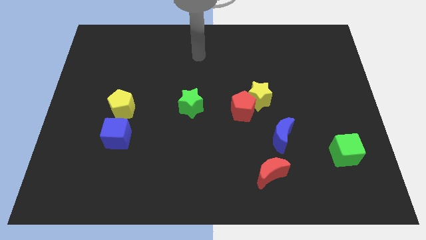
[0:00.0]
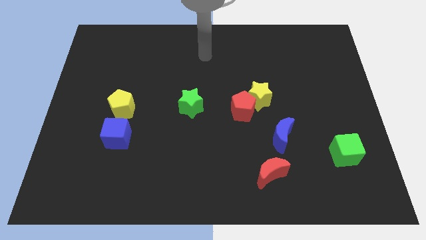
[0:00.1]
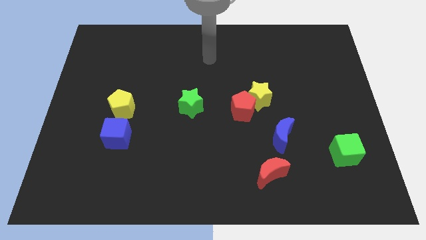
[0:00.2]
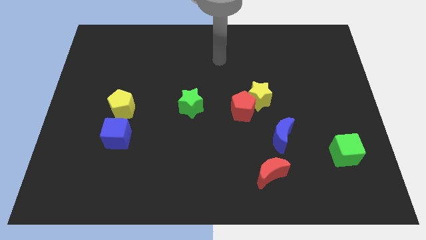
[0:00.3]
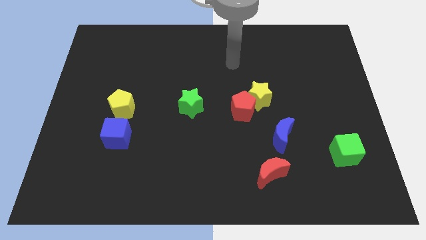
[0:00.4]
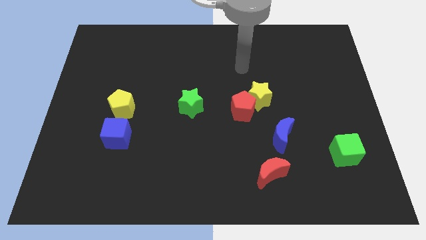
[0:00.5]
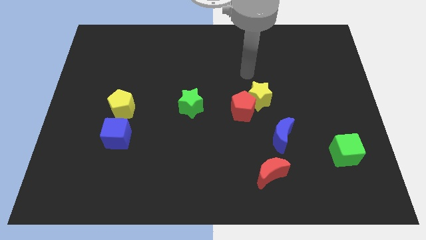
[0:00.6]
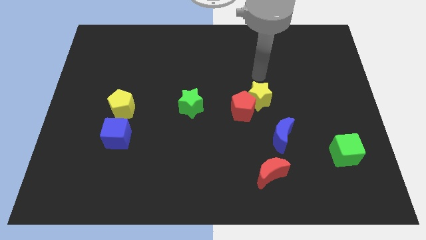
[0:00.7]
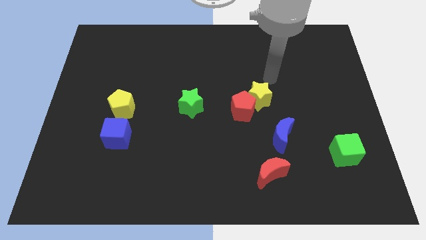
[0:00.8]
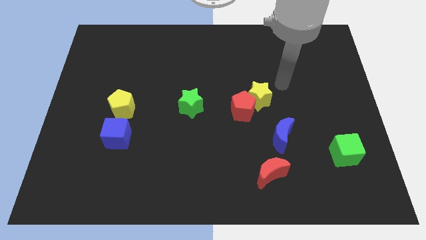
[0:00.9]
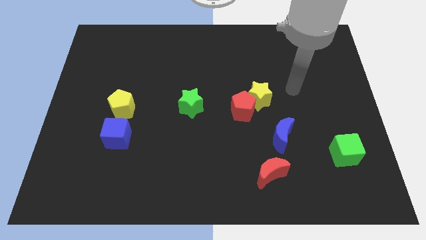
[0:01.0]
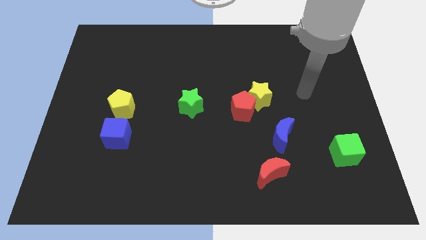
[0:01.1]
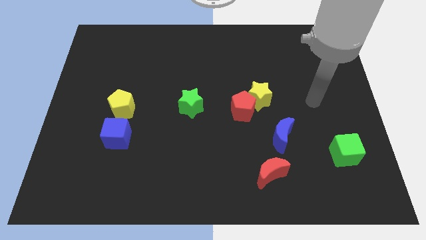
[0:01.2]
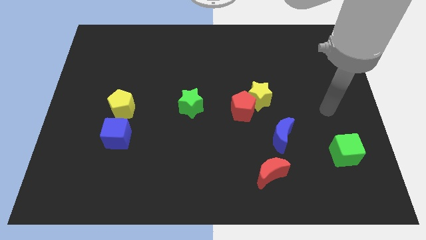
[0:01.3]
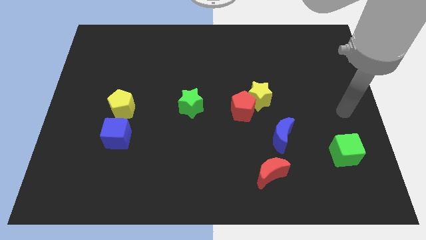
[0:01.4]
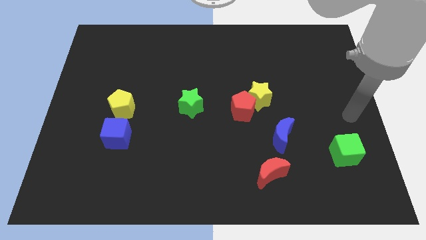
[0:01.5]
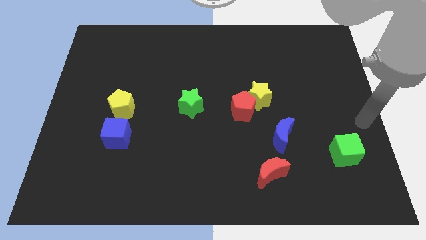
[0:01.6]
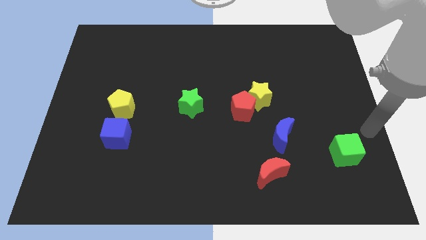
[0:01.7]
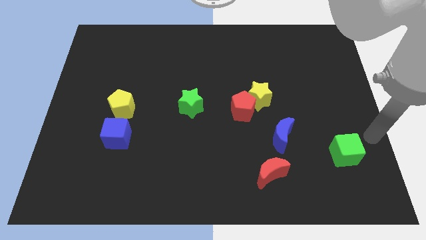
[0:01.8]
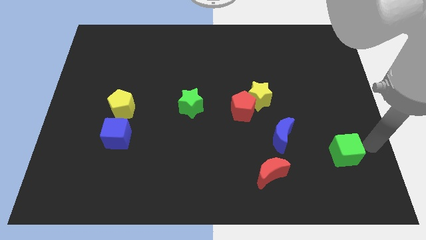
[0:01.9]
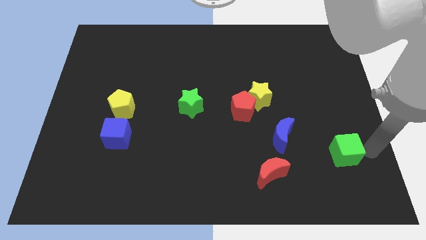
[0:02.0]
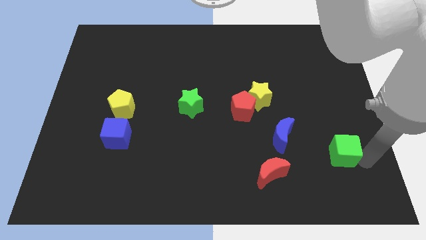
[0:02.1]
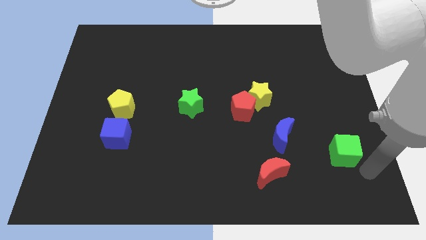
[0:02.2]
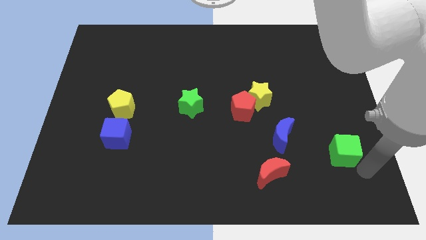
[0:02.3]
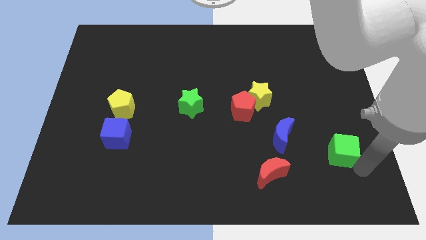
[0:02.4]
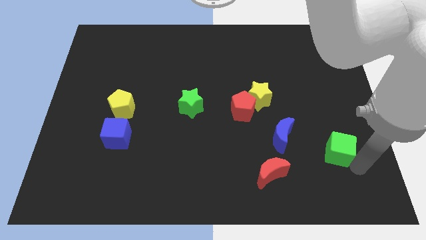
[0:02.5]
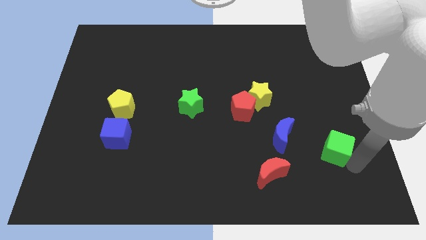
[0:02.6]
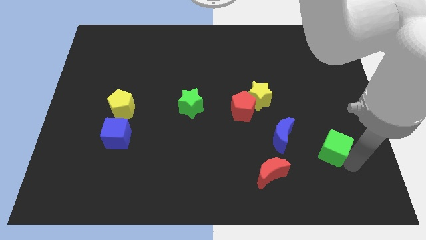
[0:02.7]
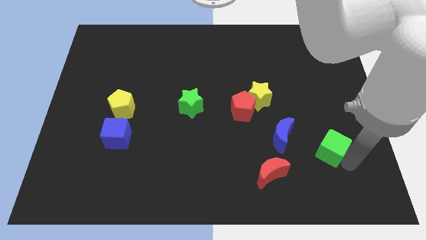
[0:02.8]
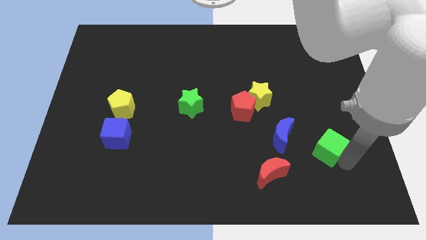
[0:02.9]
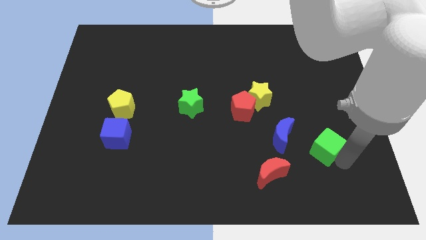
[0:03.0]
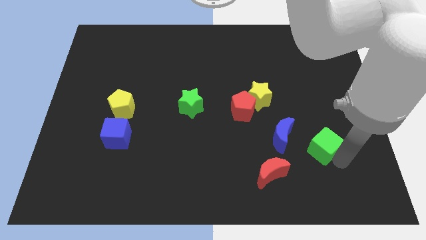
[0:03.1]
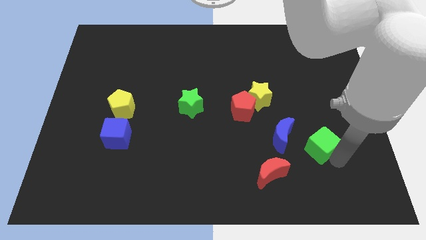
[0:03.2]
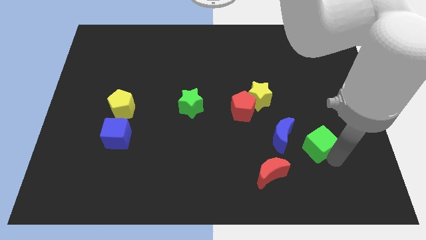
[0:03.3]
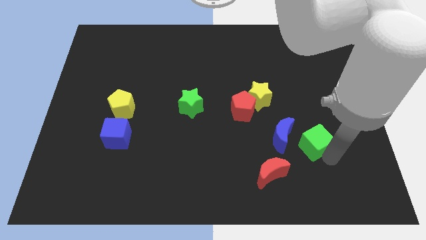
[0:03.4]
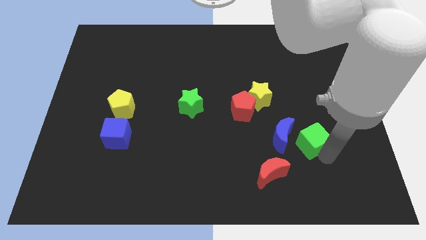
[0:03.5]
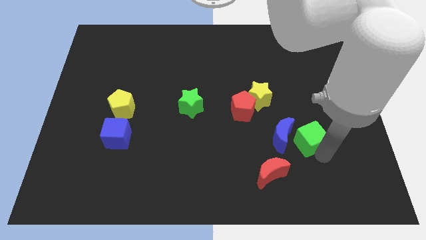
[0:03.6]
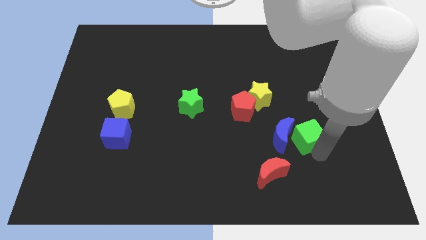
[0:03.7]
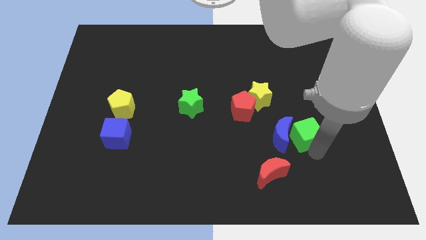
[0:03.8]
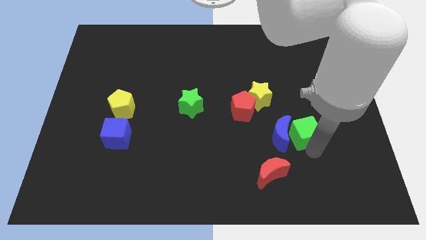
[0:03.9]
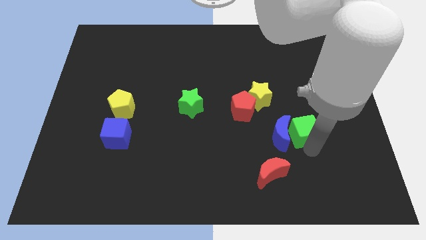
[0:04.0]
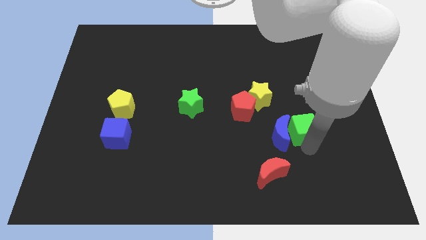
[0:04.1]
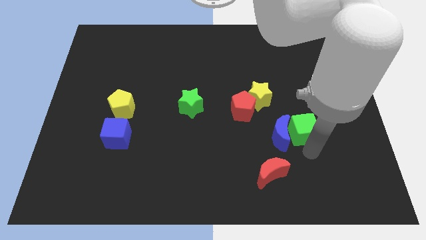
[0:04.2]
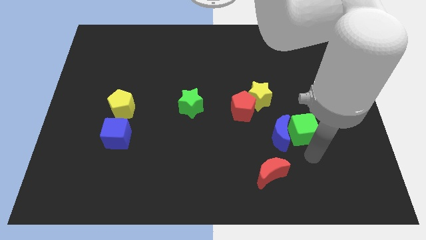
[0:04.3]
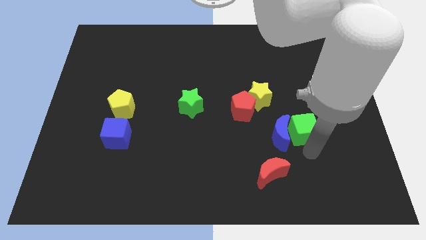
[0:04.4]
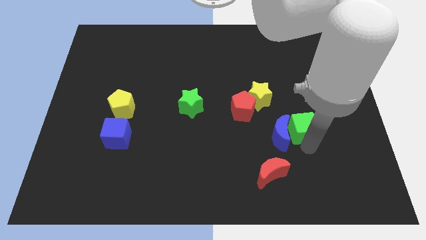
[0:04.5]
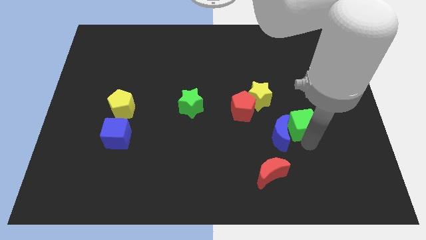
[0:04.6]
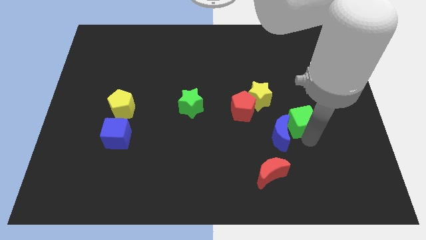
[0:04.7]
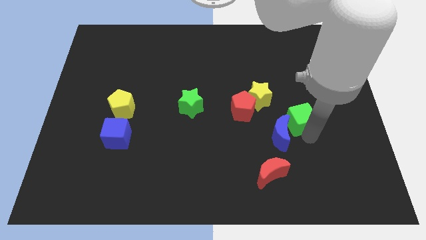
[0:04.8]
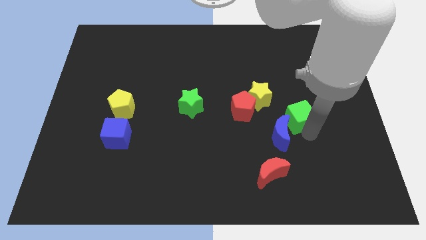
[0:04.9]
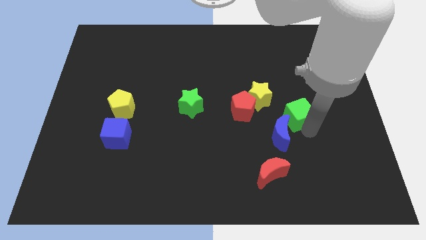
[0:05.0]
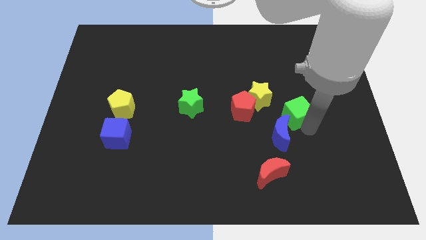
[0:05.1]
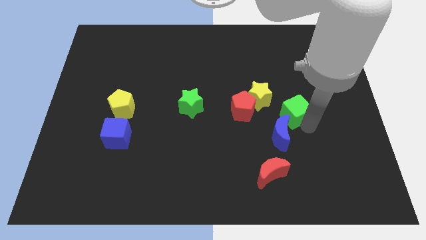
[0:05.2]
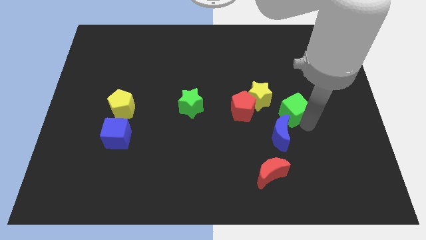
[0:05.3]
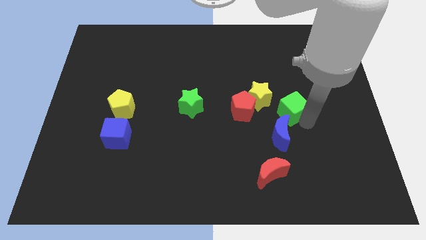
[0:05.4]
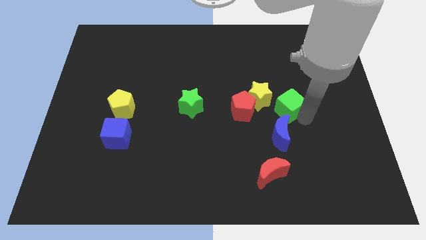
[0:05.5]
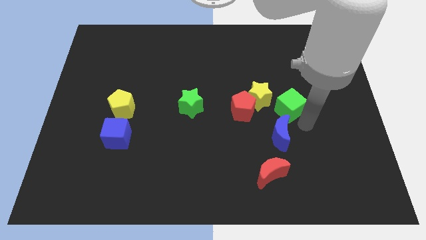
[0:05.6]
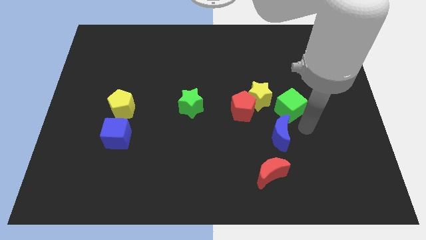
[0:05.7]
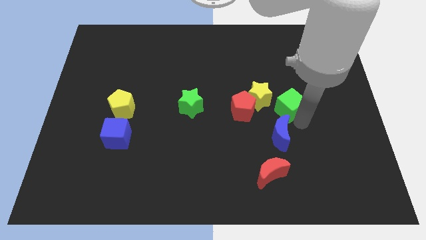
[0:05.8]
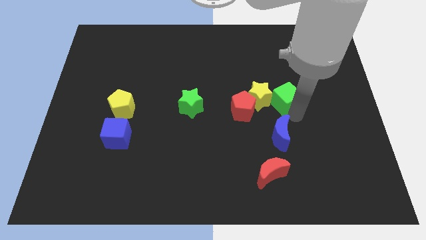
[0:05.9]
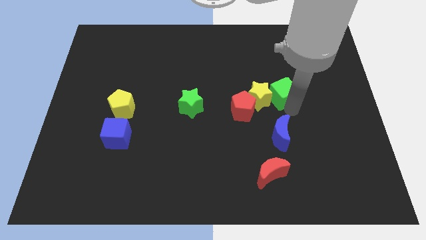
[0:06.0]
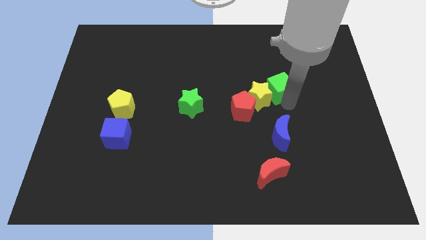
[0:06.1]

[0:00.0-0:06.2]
push the green cube upwards and left diagonally

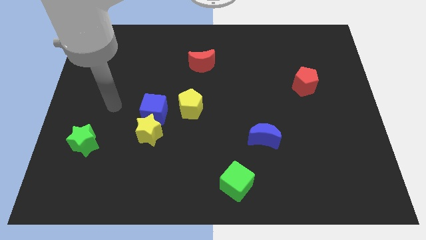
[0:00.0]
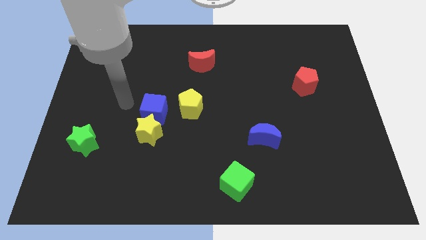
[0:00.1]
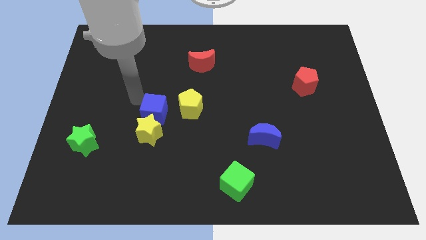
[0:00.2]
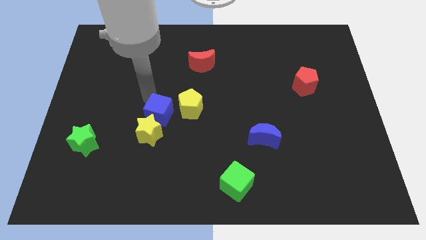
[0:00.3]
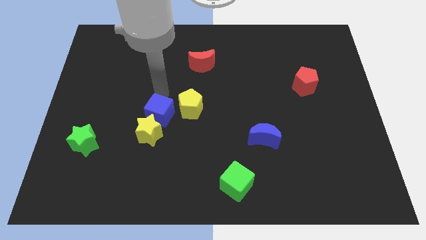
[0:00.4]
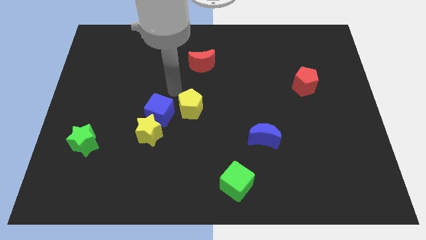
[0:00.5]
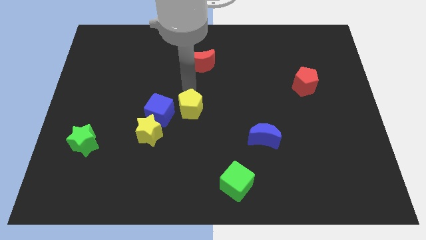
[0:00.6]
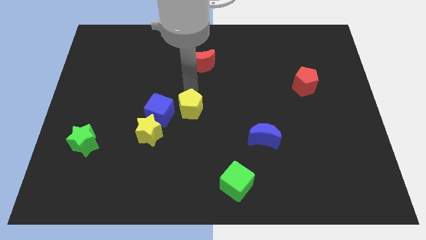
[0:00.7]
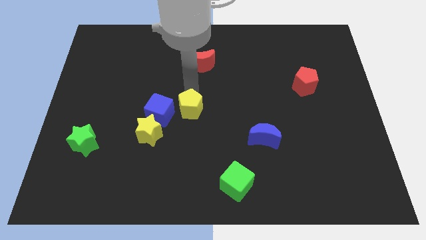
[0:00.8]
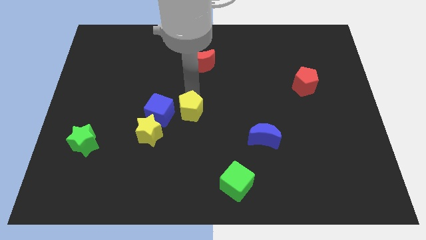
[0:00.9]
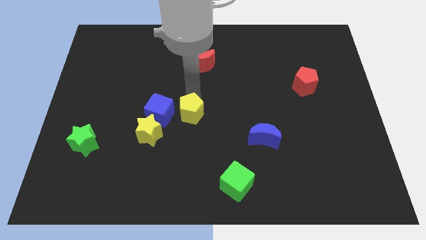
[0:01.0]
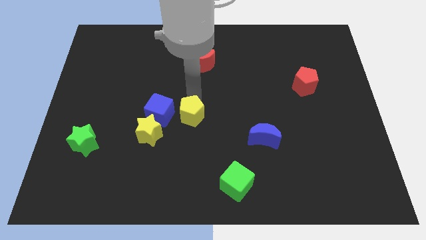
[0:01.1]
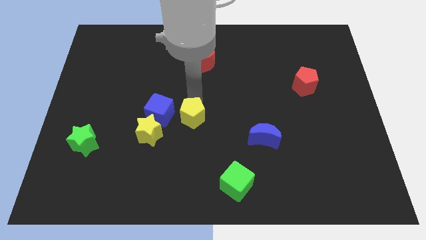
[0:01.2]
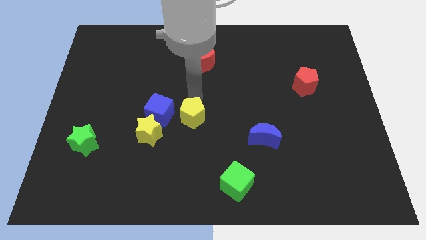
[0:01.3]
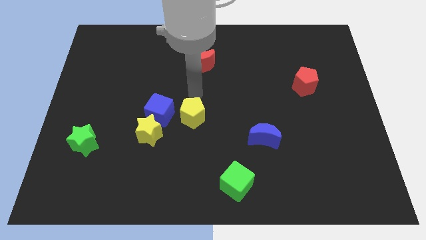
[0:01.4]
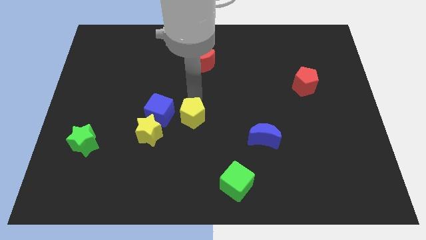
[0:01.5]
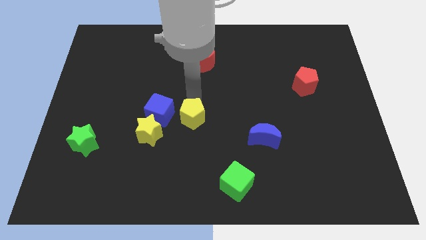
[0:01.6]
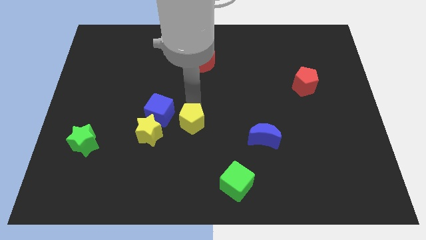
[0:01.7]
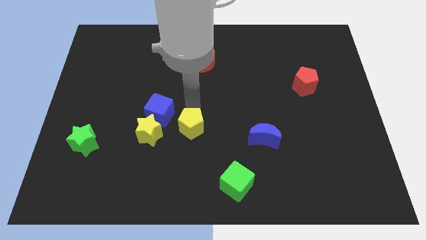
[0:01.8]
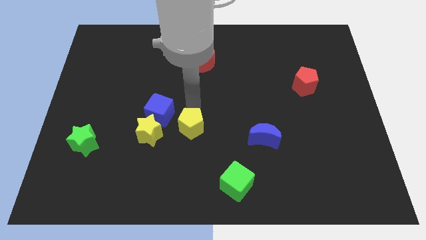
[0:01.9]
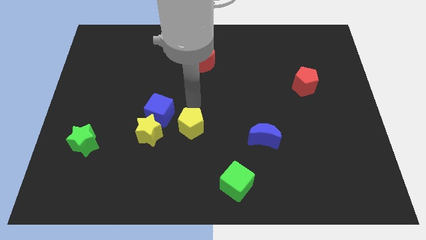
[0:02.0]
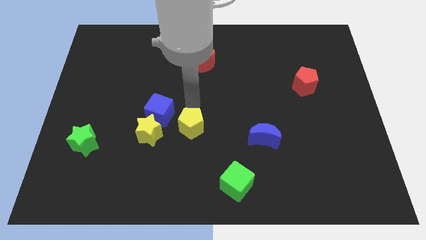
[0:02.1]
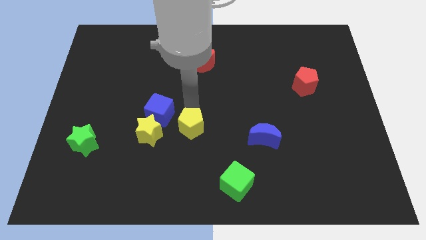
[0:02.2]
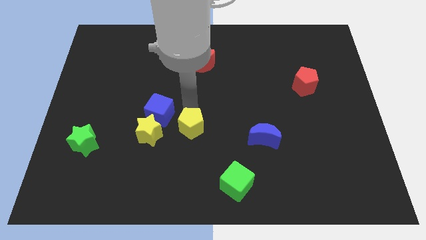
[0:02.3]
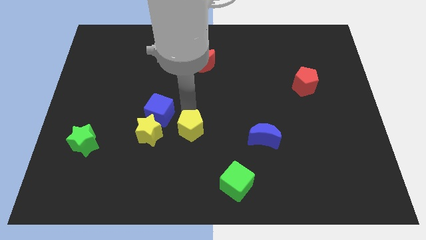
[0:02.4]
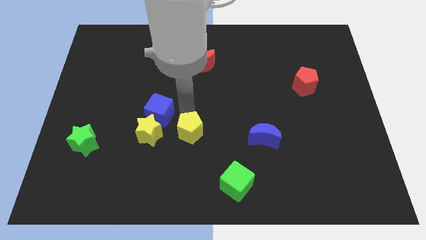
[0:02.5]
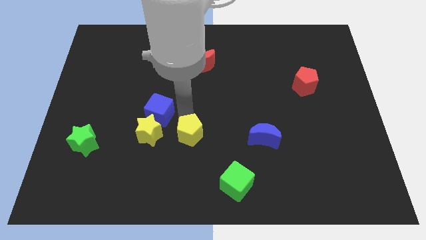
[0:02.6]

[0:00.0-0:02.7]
slide the yellow pentagon a little bit downwards
